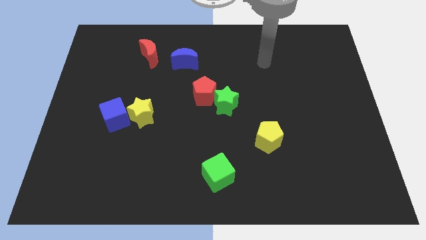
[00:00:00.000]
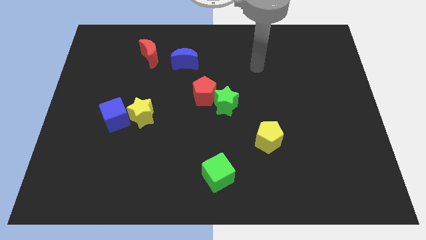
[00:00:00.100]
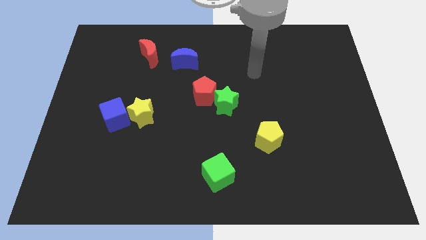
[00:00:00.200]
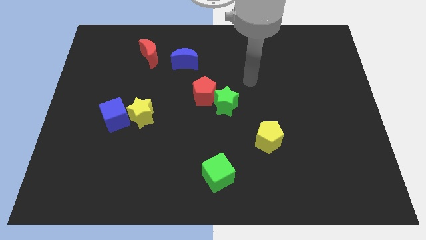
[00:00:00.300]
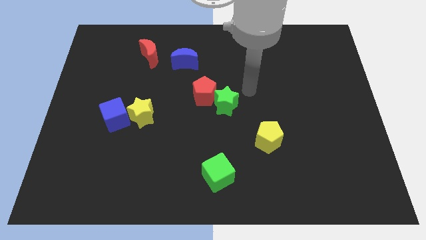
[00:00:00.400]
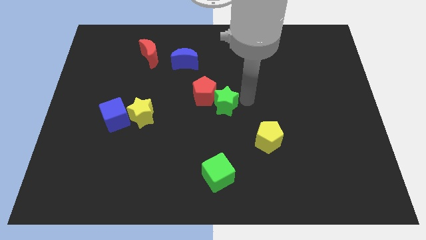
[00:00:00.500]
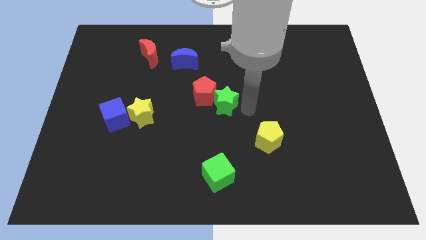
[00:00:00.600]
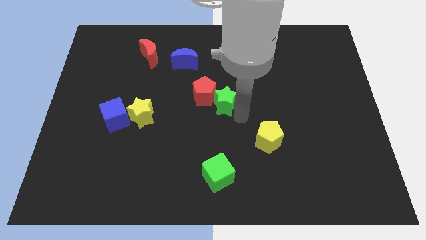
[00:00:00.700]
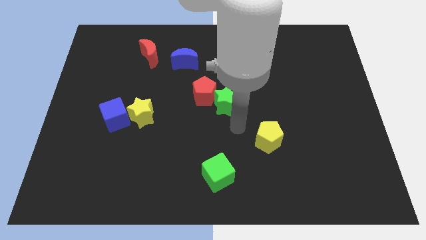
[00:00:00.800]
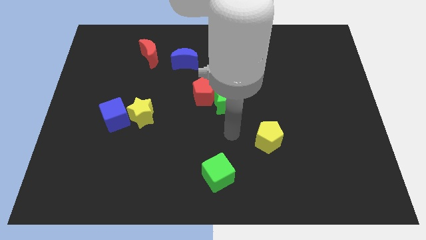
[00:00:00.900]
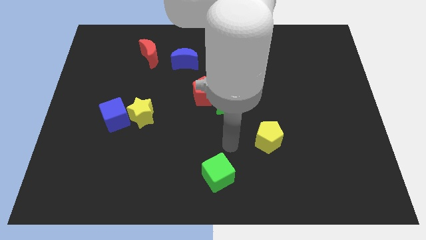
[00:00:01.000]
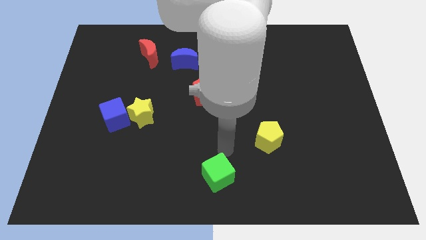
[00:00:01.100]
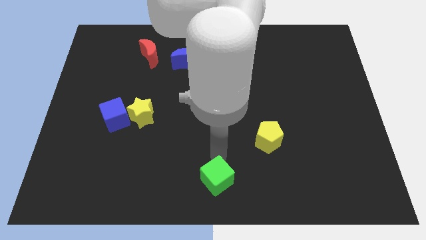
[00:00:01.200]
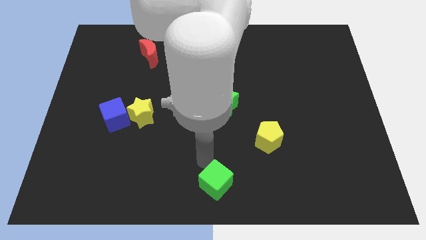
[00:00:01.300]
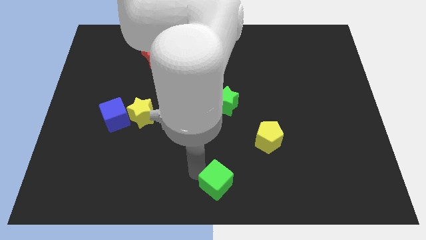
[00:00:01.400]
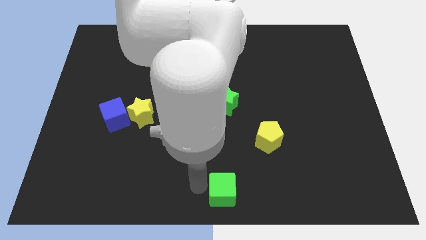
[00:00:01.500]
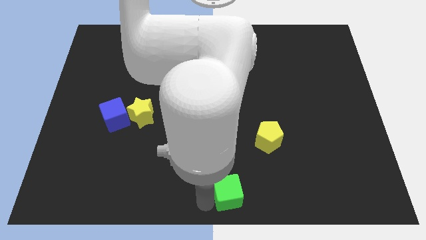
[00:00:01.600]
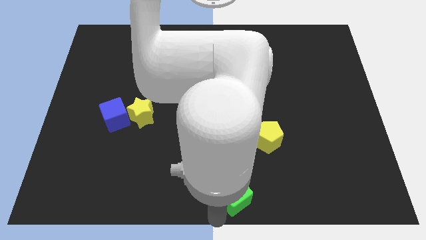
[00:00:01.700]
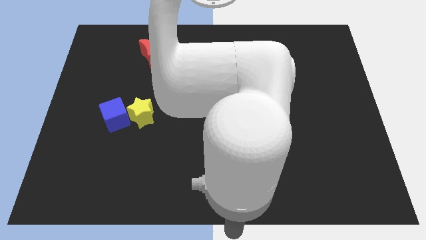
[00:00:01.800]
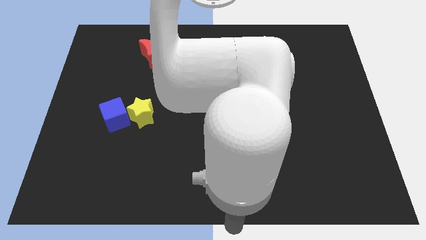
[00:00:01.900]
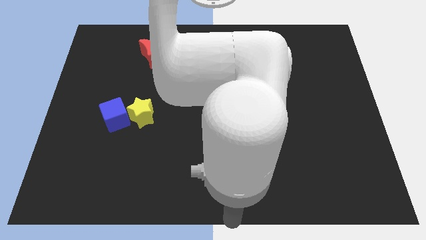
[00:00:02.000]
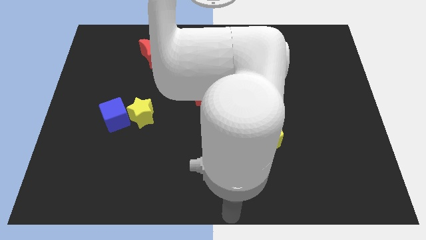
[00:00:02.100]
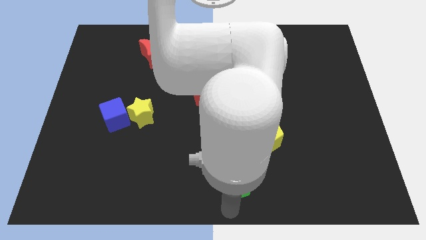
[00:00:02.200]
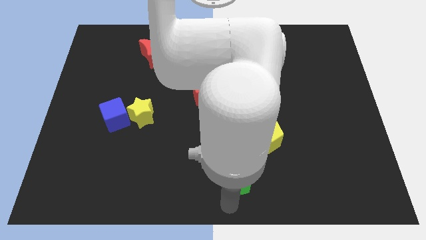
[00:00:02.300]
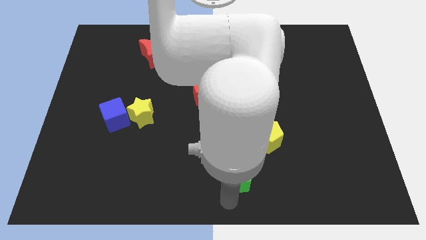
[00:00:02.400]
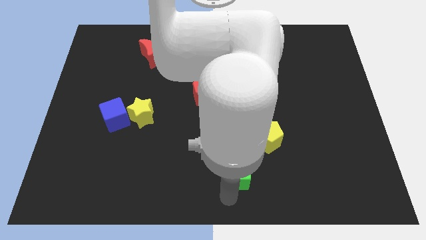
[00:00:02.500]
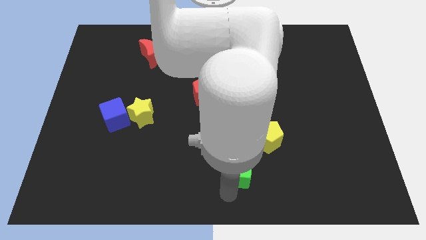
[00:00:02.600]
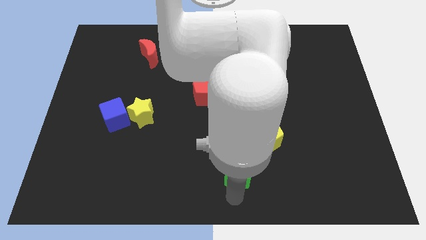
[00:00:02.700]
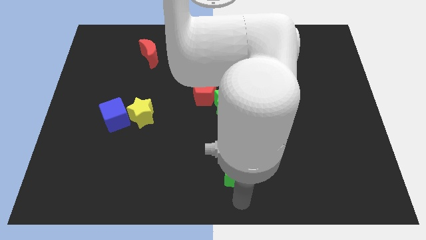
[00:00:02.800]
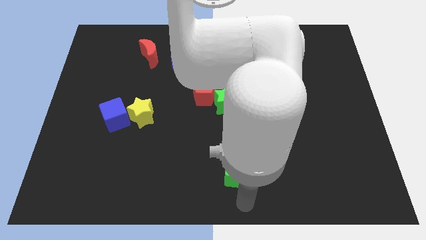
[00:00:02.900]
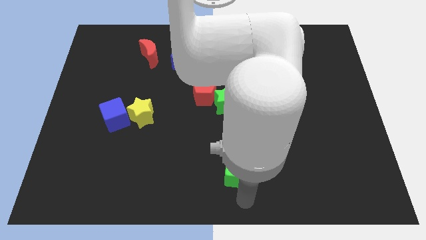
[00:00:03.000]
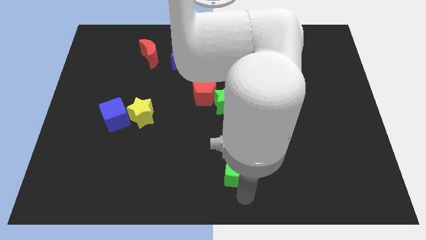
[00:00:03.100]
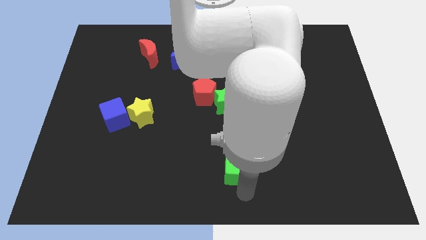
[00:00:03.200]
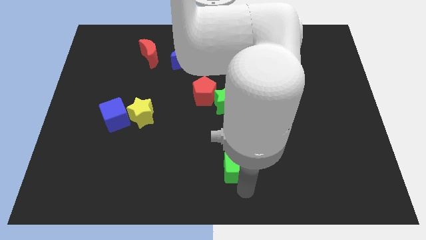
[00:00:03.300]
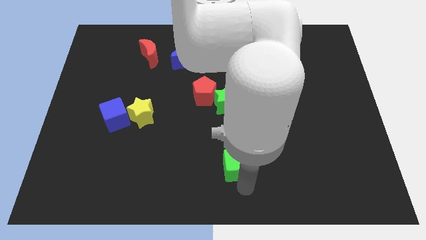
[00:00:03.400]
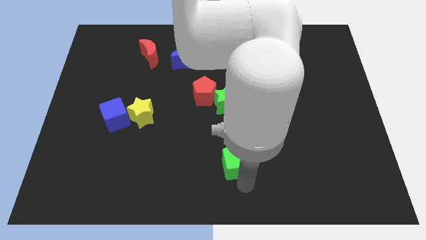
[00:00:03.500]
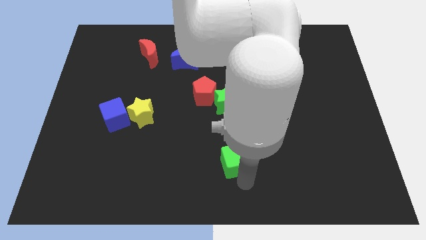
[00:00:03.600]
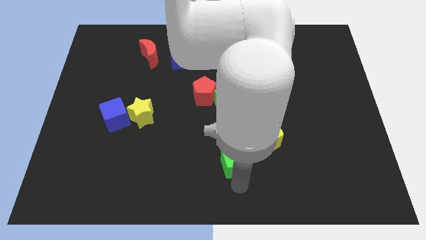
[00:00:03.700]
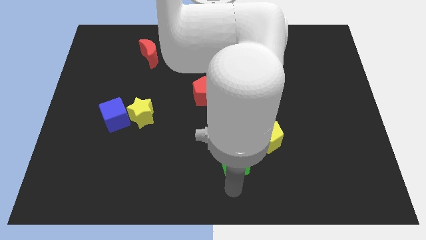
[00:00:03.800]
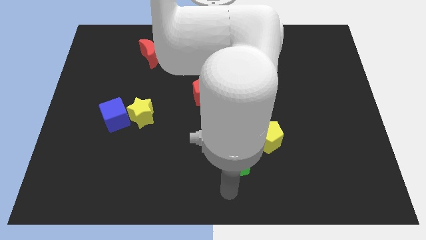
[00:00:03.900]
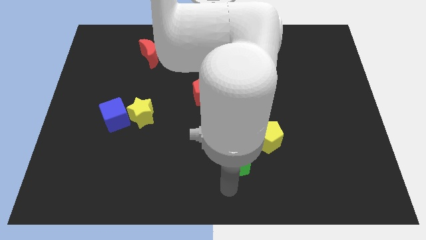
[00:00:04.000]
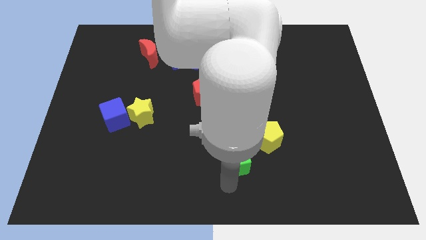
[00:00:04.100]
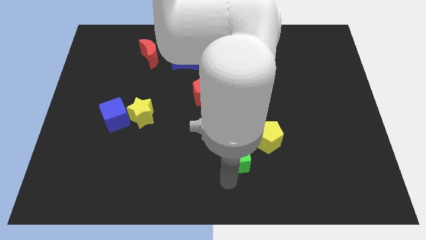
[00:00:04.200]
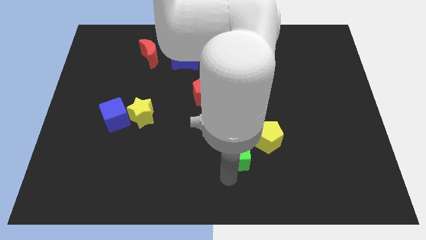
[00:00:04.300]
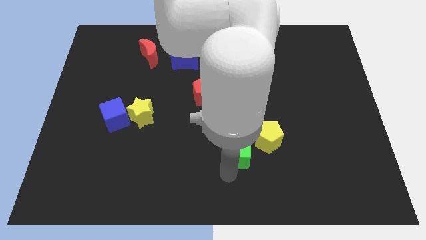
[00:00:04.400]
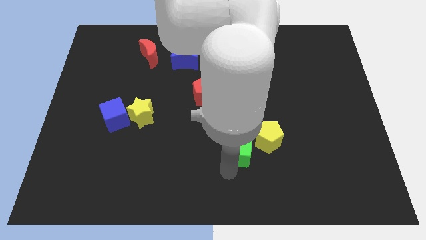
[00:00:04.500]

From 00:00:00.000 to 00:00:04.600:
slide the green cube up and right a bit

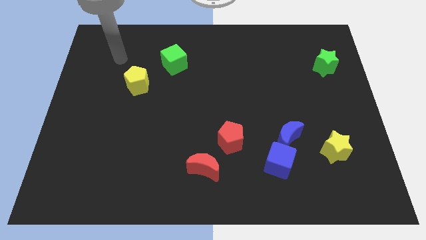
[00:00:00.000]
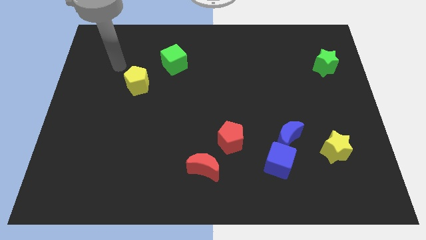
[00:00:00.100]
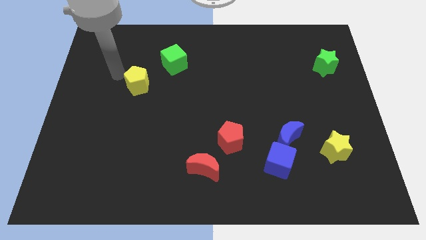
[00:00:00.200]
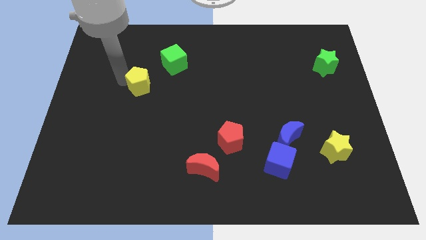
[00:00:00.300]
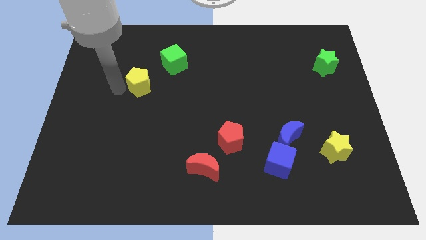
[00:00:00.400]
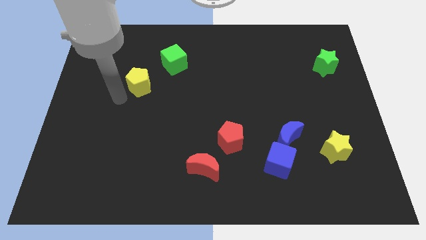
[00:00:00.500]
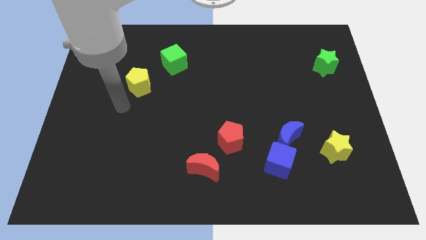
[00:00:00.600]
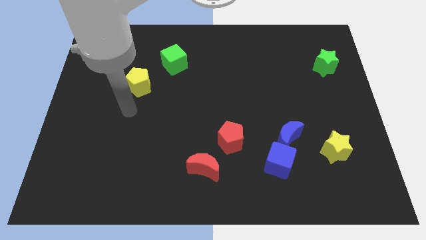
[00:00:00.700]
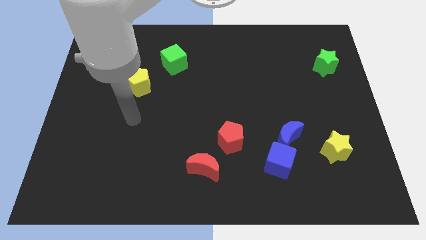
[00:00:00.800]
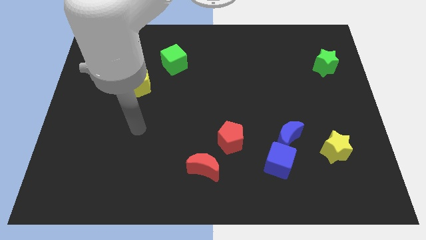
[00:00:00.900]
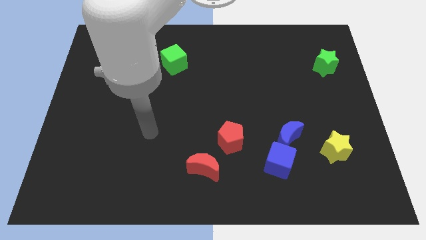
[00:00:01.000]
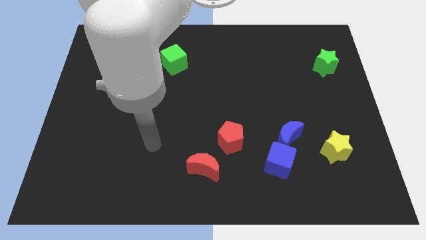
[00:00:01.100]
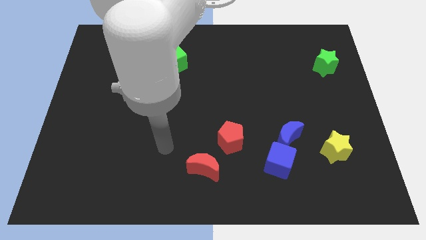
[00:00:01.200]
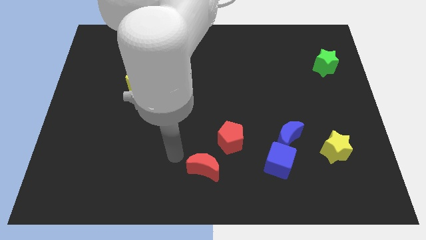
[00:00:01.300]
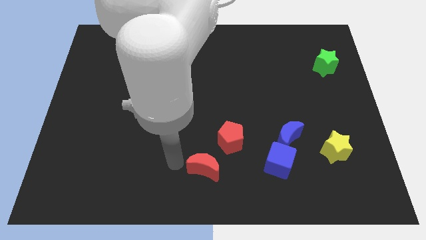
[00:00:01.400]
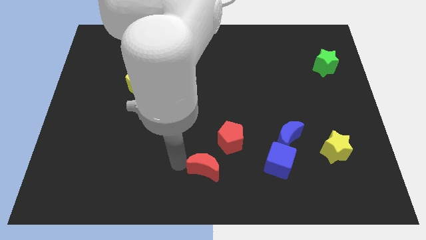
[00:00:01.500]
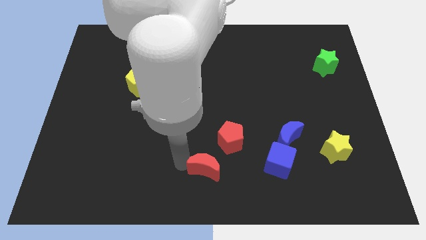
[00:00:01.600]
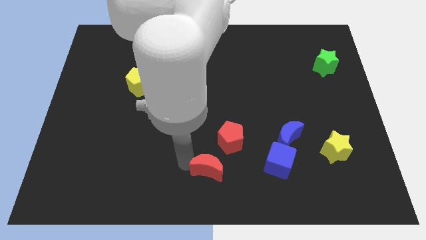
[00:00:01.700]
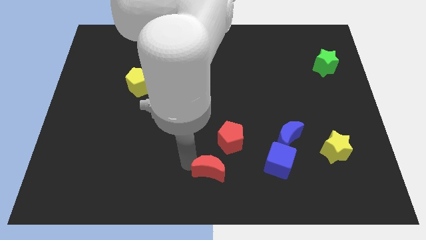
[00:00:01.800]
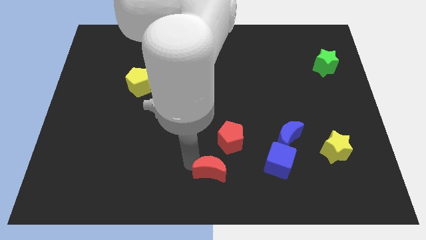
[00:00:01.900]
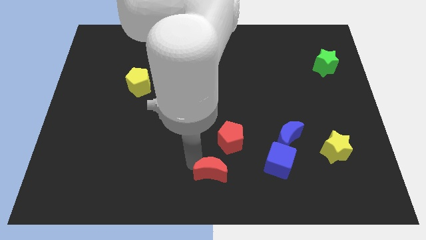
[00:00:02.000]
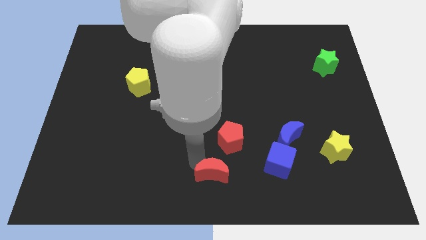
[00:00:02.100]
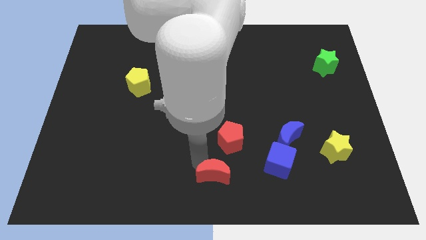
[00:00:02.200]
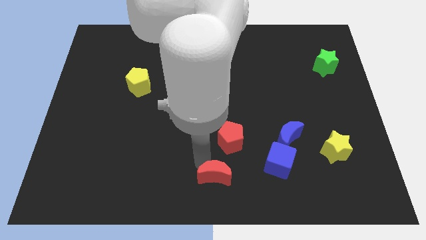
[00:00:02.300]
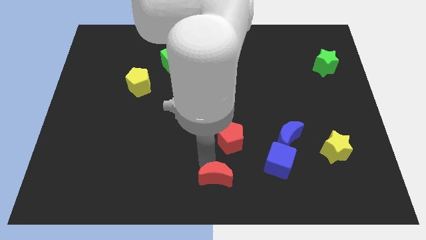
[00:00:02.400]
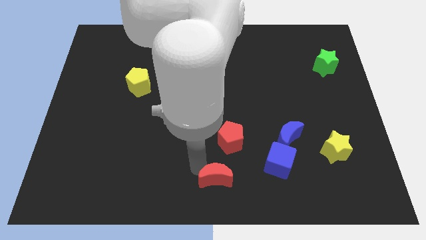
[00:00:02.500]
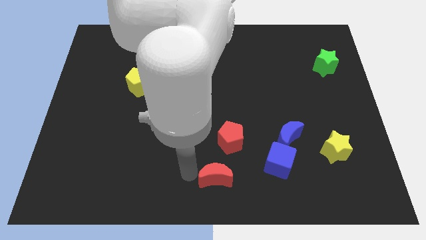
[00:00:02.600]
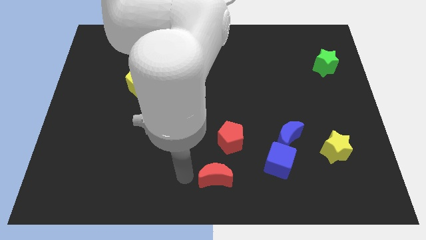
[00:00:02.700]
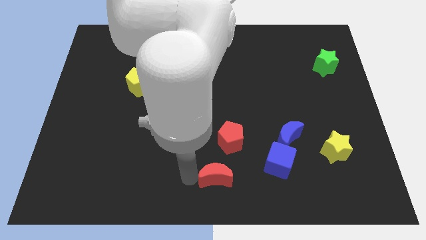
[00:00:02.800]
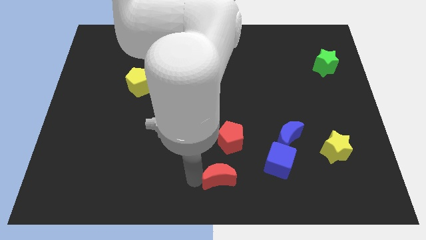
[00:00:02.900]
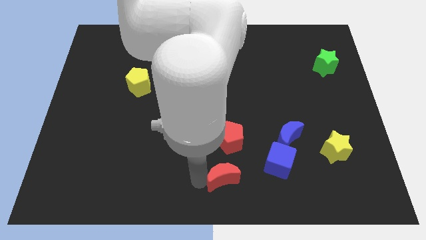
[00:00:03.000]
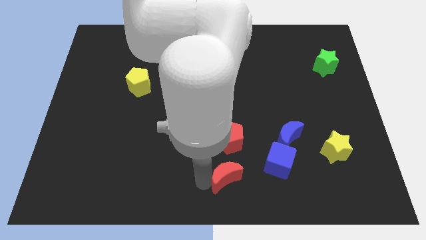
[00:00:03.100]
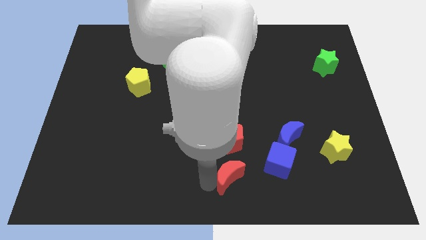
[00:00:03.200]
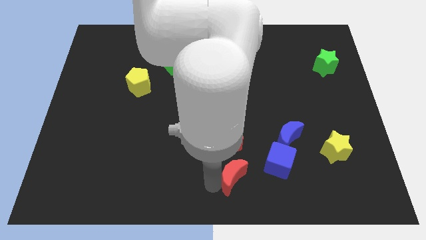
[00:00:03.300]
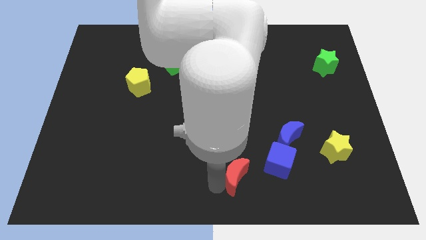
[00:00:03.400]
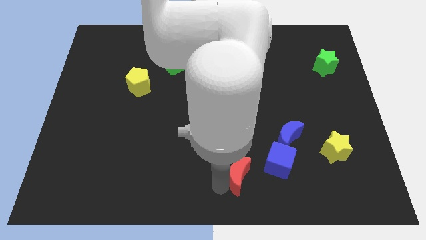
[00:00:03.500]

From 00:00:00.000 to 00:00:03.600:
move the red moon right somewhat
